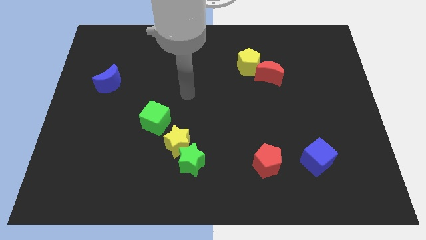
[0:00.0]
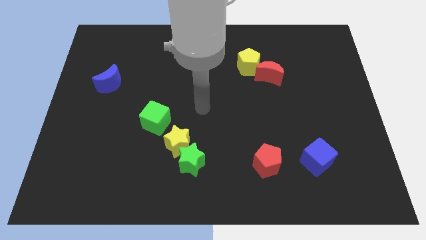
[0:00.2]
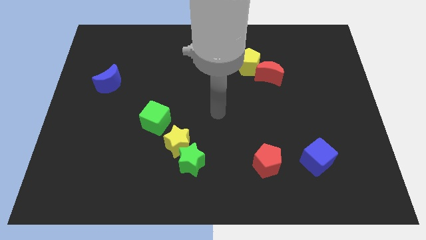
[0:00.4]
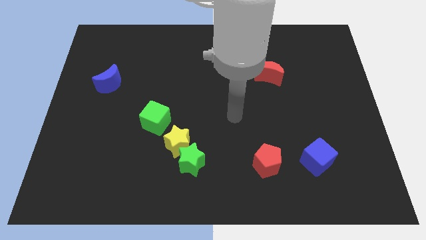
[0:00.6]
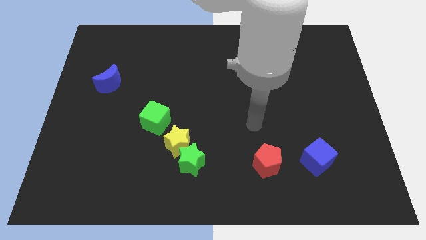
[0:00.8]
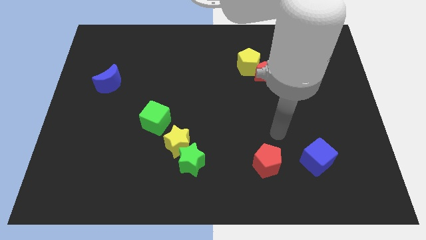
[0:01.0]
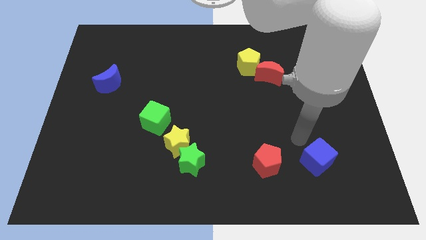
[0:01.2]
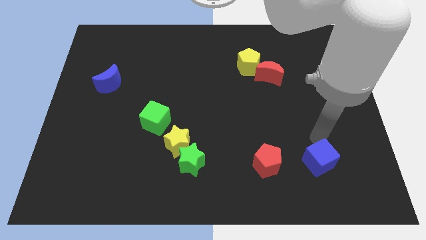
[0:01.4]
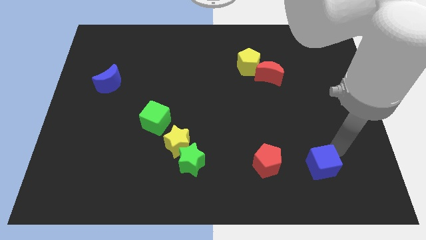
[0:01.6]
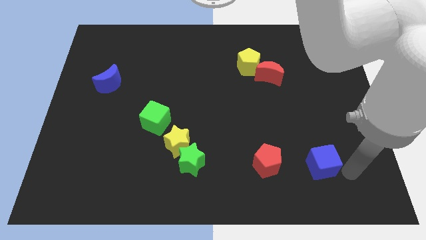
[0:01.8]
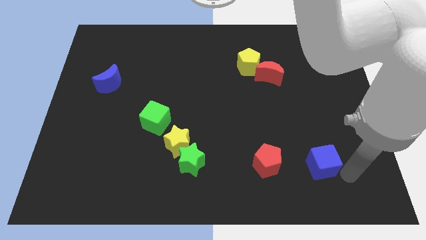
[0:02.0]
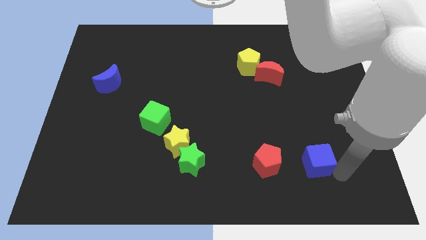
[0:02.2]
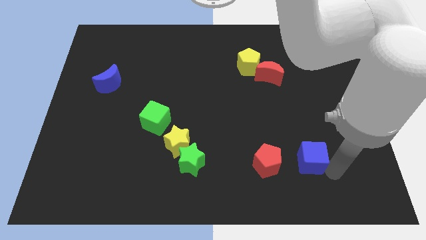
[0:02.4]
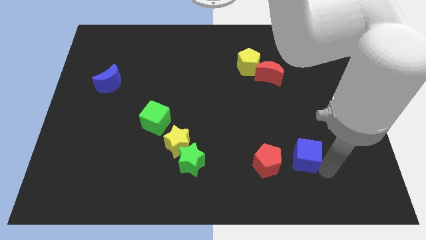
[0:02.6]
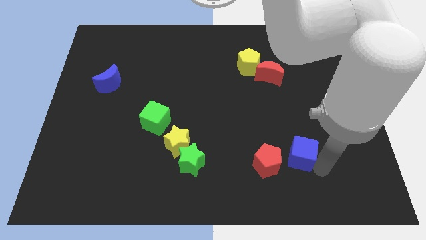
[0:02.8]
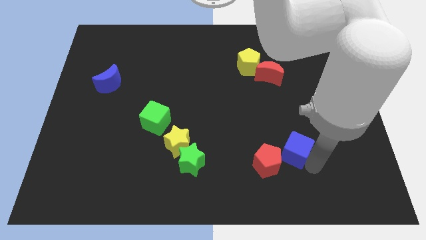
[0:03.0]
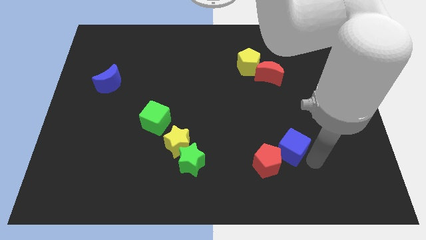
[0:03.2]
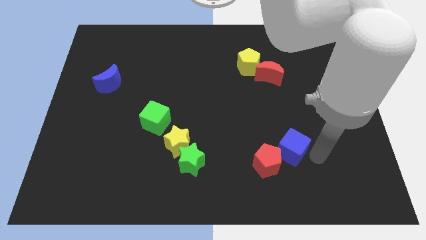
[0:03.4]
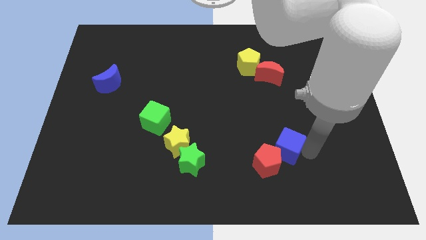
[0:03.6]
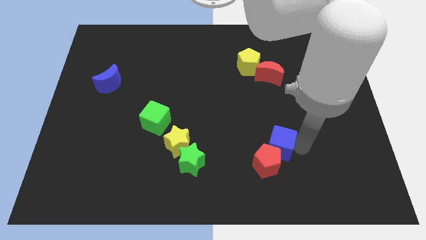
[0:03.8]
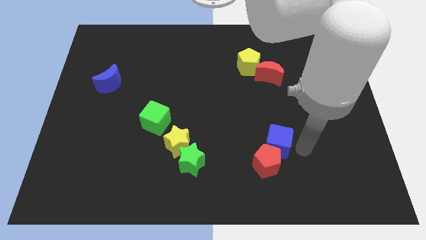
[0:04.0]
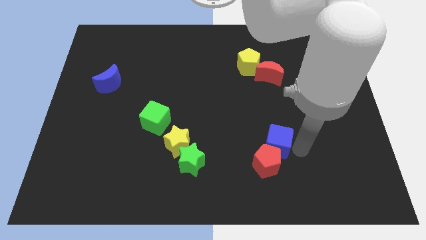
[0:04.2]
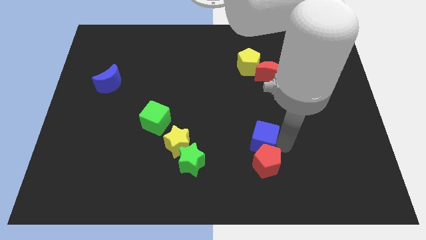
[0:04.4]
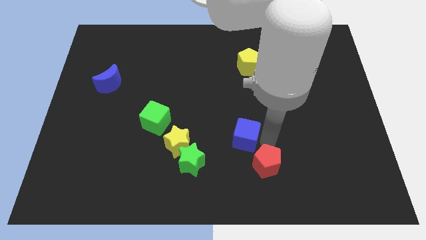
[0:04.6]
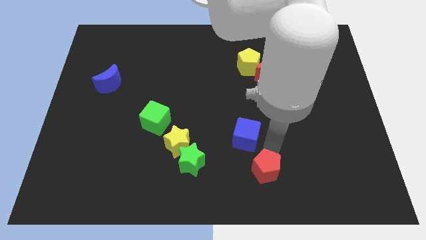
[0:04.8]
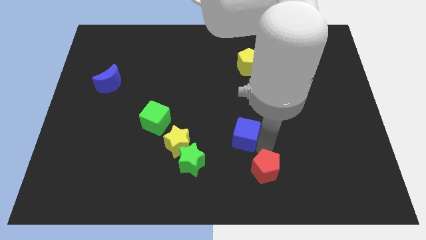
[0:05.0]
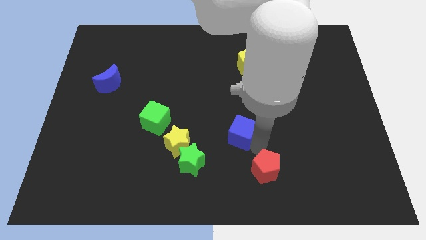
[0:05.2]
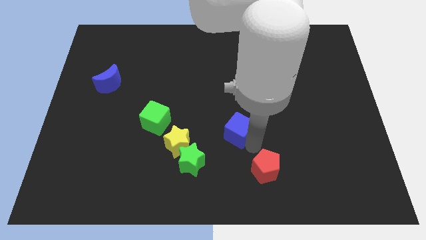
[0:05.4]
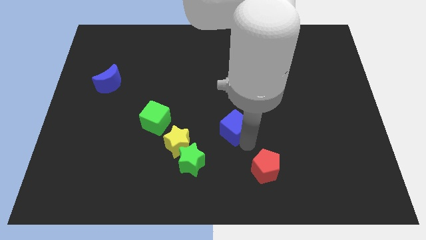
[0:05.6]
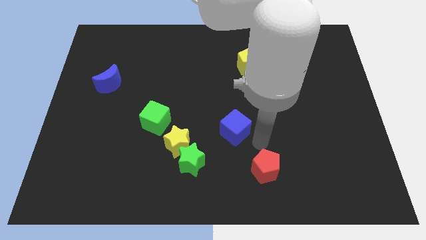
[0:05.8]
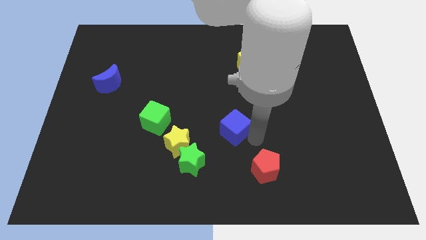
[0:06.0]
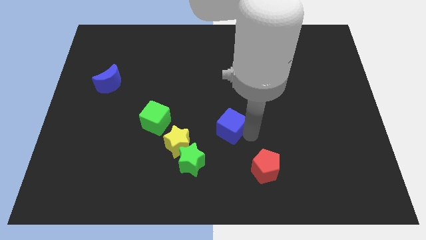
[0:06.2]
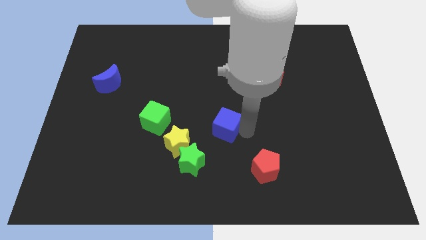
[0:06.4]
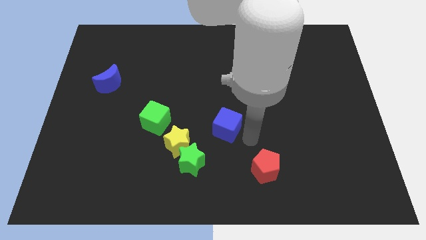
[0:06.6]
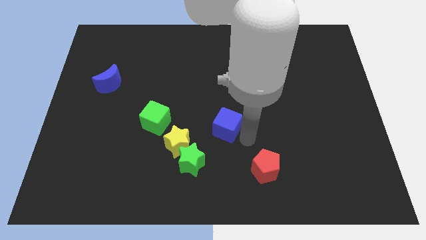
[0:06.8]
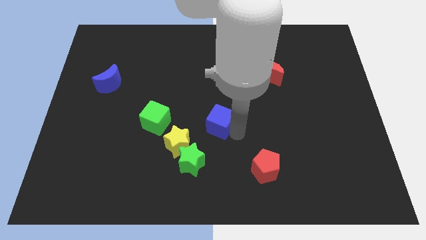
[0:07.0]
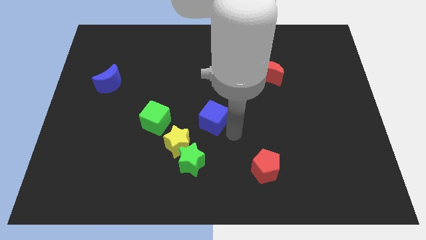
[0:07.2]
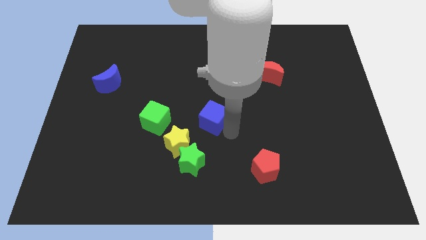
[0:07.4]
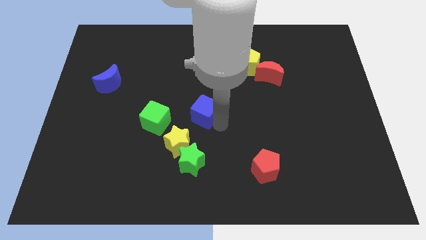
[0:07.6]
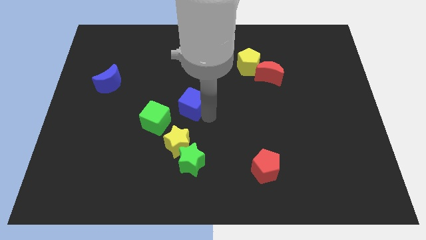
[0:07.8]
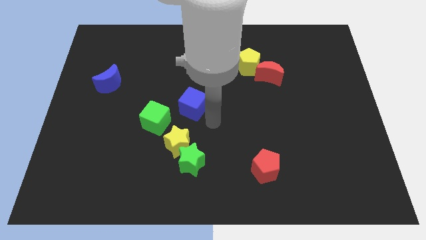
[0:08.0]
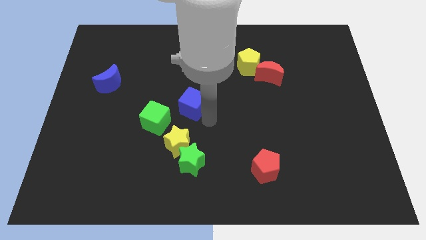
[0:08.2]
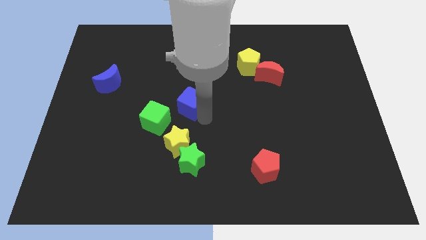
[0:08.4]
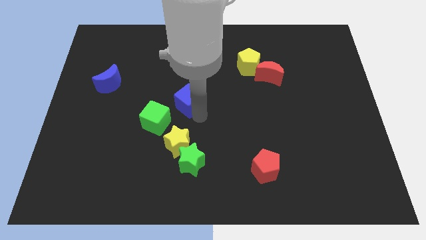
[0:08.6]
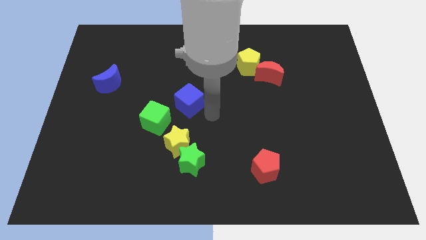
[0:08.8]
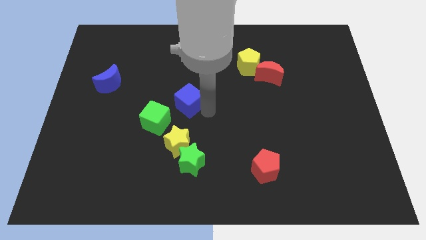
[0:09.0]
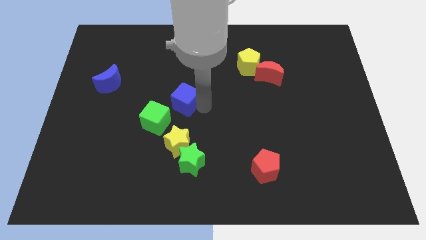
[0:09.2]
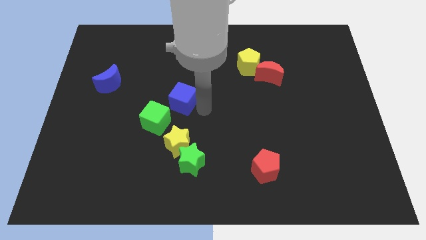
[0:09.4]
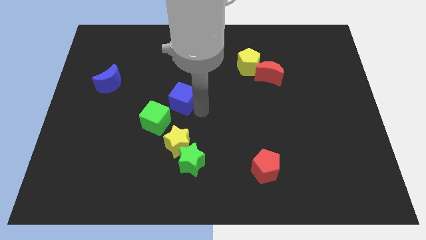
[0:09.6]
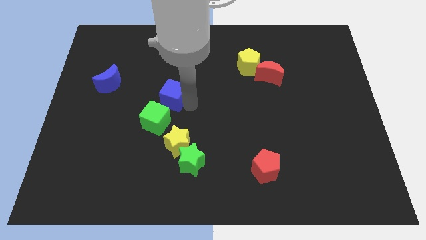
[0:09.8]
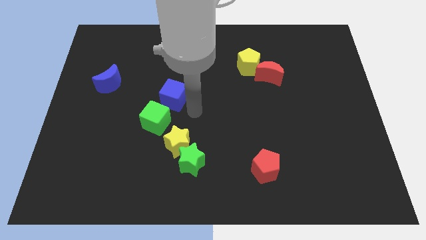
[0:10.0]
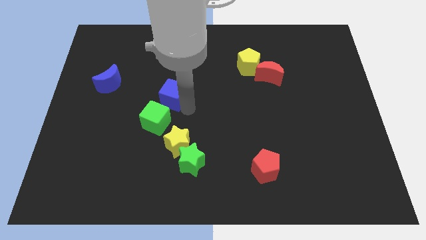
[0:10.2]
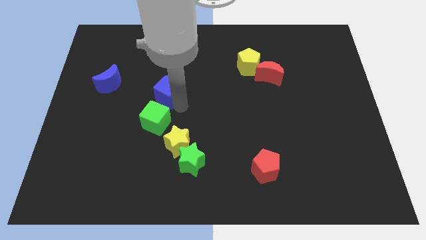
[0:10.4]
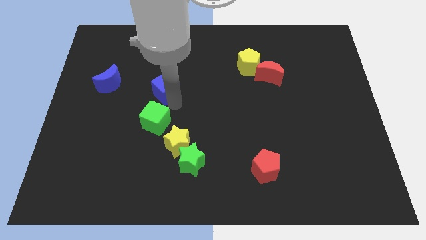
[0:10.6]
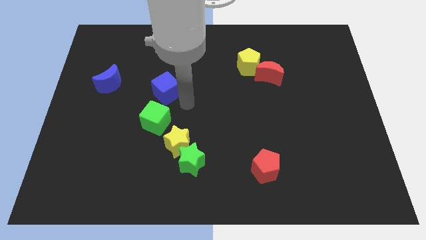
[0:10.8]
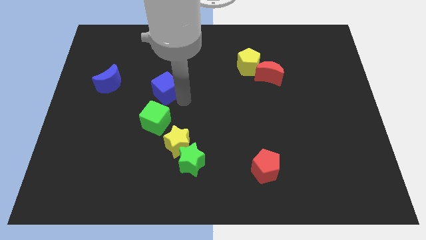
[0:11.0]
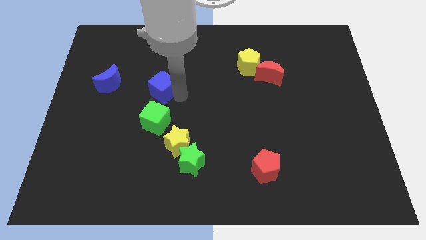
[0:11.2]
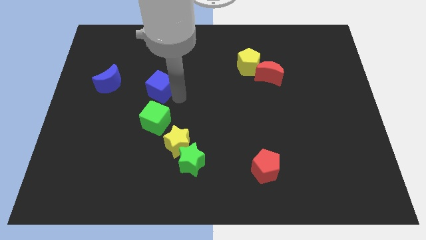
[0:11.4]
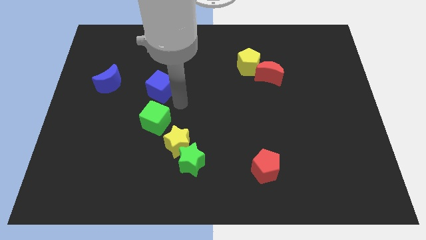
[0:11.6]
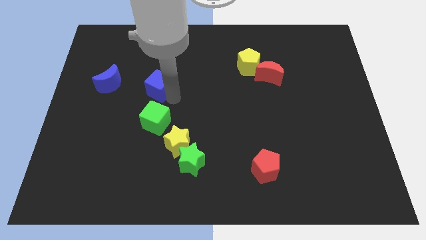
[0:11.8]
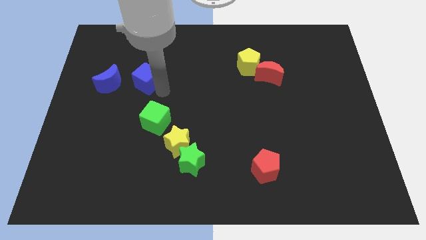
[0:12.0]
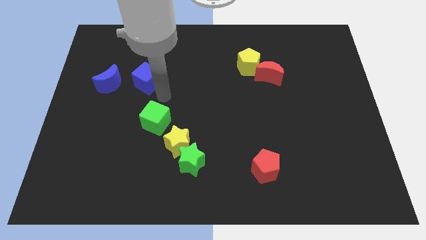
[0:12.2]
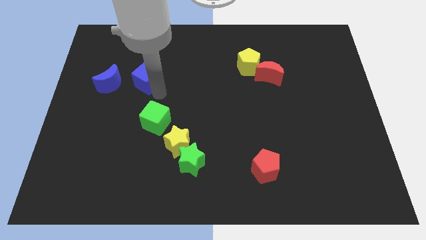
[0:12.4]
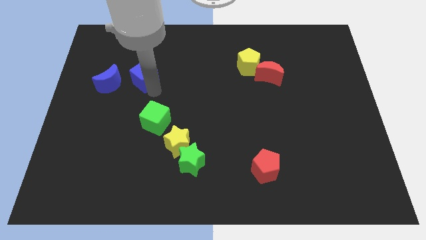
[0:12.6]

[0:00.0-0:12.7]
move the blue cube diagonally up and to the right of the blue moon

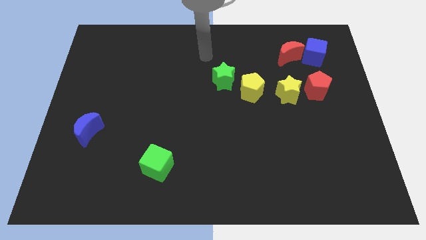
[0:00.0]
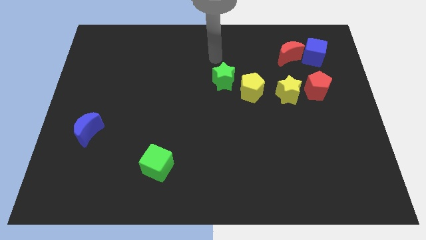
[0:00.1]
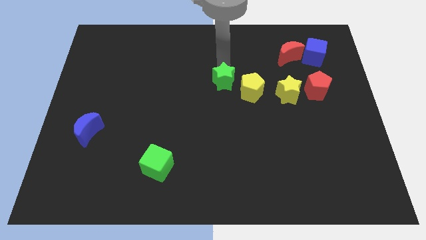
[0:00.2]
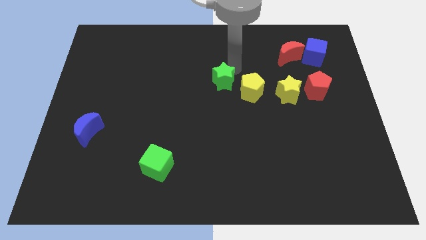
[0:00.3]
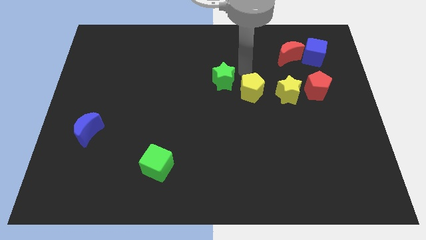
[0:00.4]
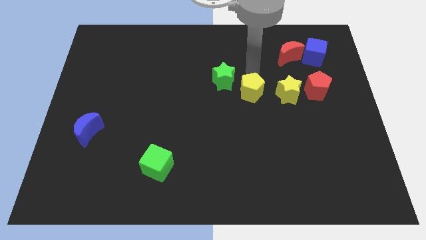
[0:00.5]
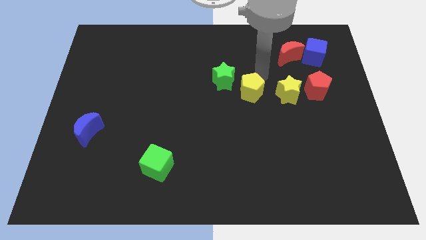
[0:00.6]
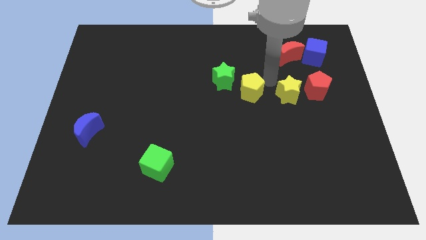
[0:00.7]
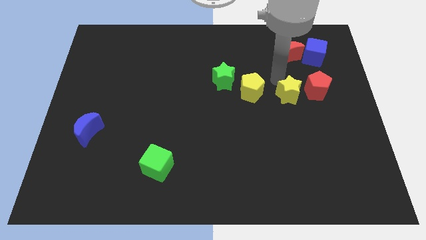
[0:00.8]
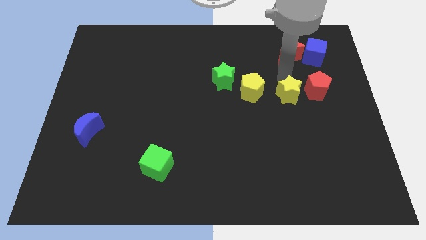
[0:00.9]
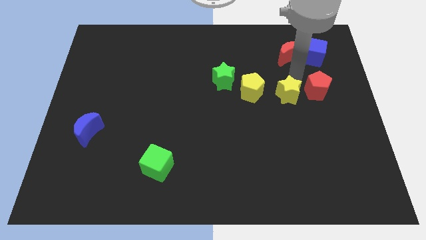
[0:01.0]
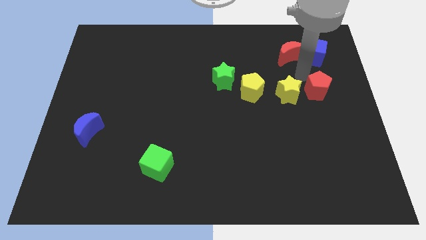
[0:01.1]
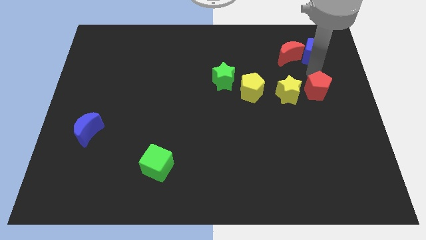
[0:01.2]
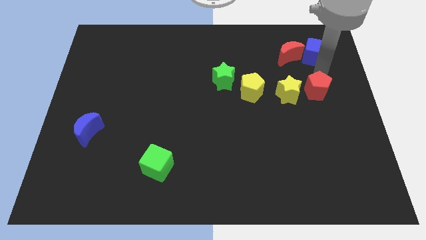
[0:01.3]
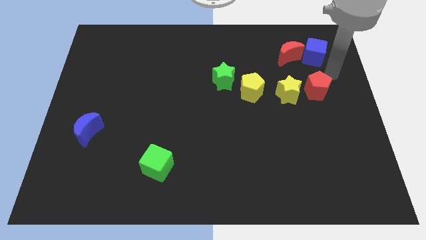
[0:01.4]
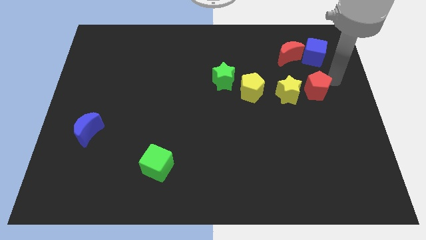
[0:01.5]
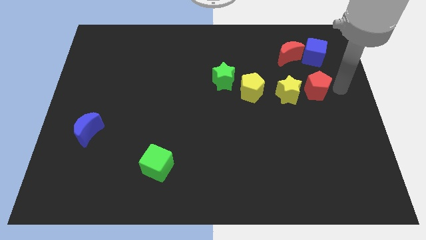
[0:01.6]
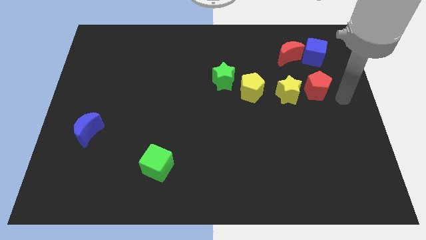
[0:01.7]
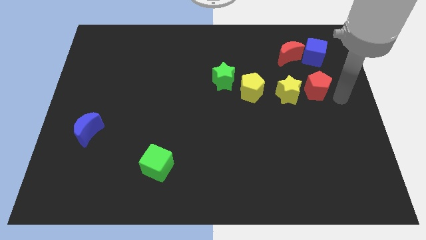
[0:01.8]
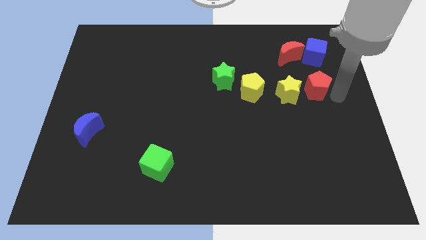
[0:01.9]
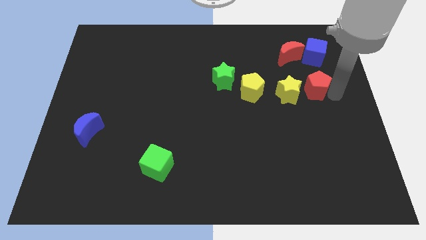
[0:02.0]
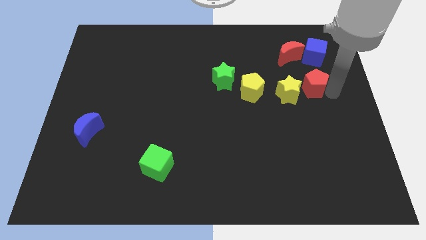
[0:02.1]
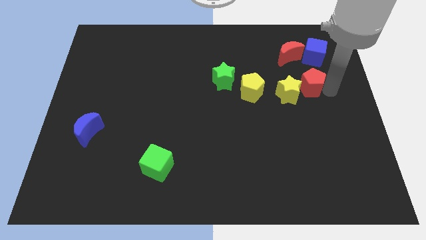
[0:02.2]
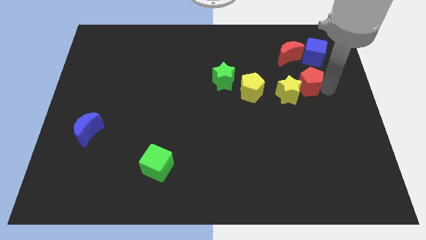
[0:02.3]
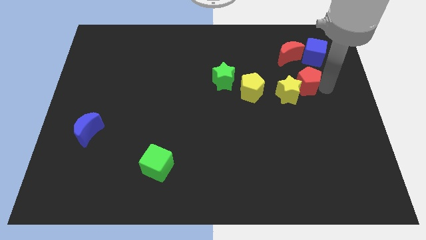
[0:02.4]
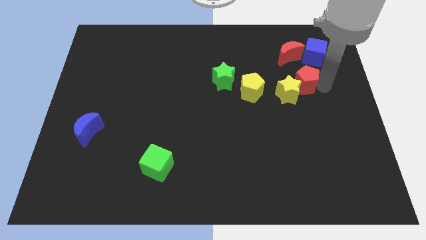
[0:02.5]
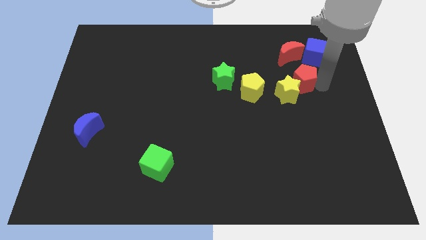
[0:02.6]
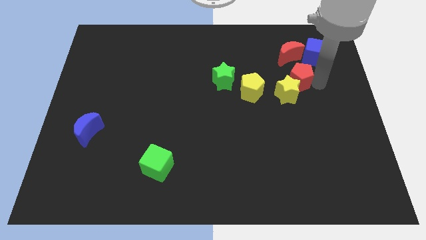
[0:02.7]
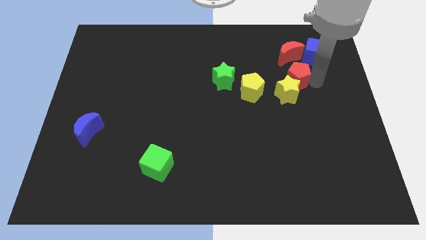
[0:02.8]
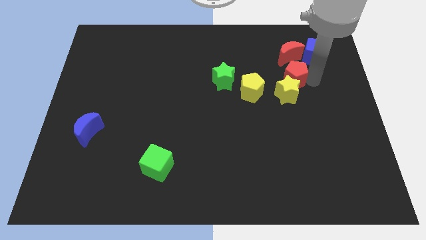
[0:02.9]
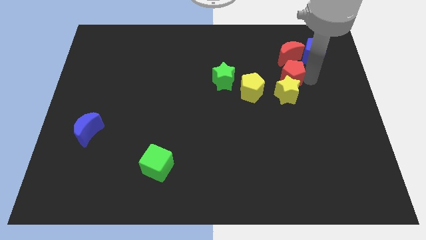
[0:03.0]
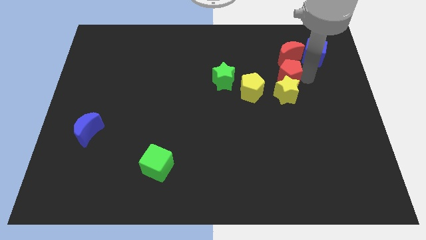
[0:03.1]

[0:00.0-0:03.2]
push the red pentagon to the bottom left side of the red moon
